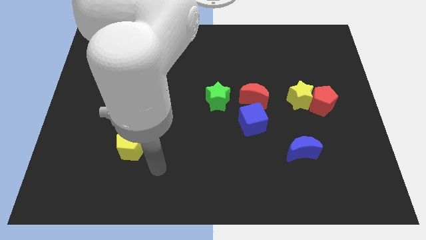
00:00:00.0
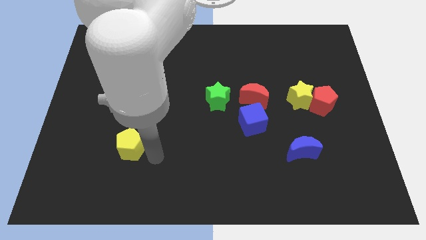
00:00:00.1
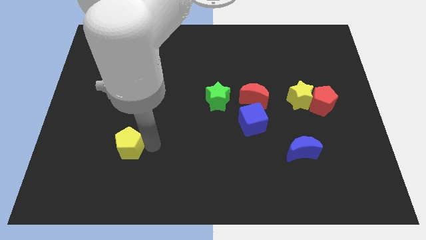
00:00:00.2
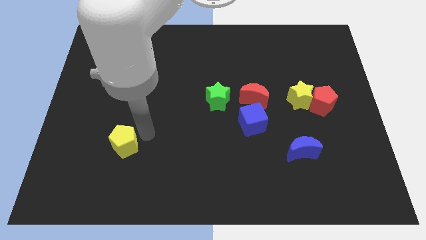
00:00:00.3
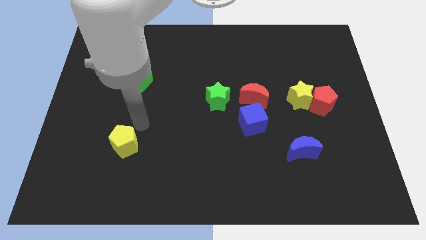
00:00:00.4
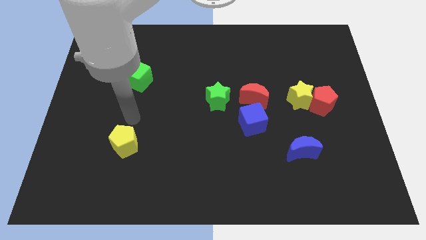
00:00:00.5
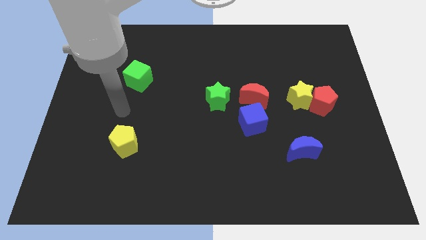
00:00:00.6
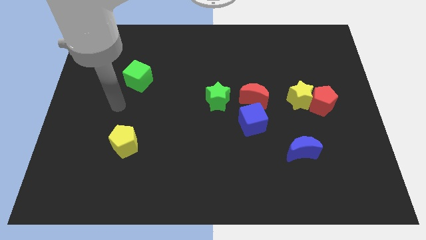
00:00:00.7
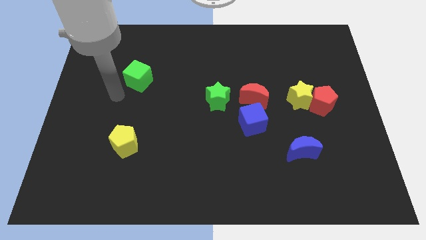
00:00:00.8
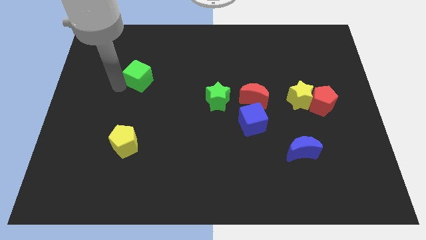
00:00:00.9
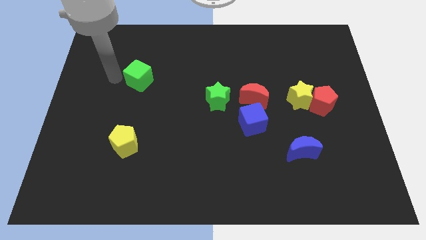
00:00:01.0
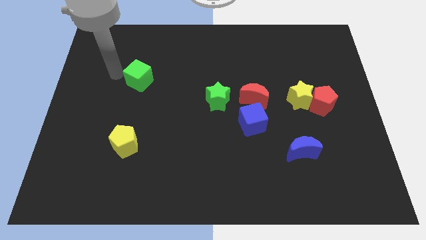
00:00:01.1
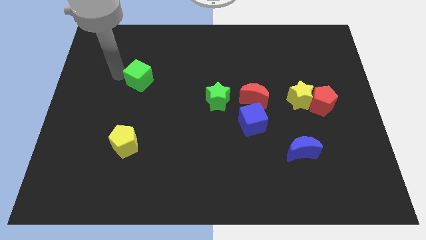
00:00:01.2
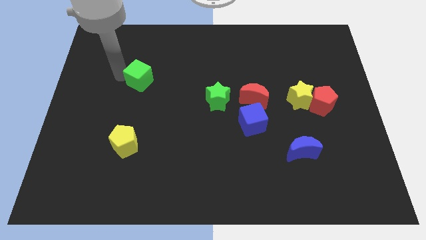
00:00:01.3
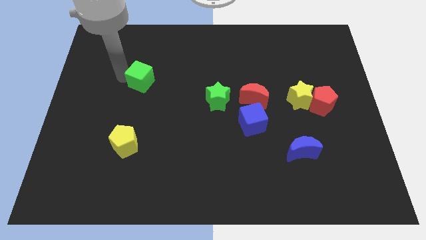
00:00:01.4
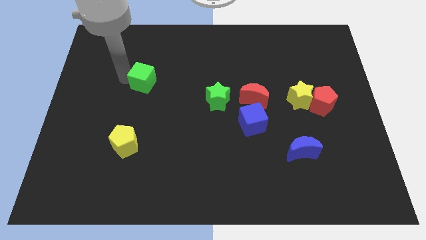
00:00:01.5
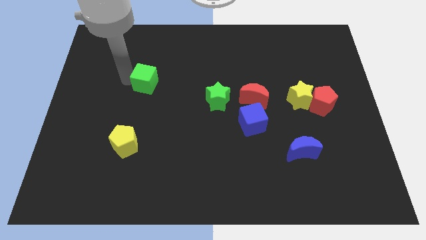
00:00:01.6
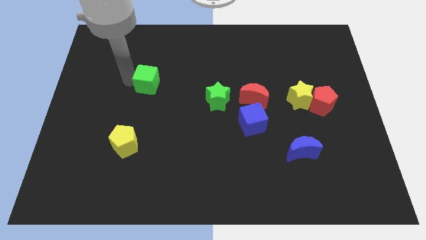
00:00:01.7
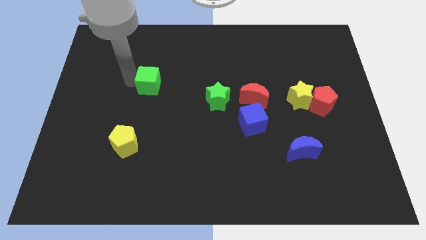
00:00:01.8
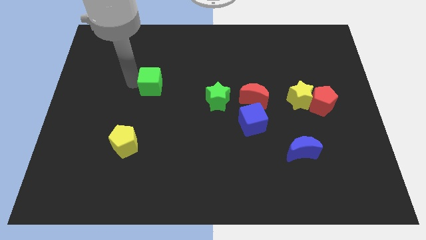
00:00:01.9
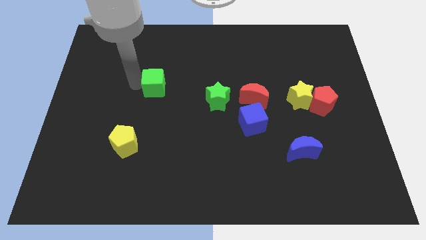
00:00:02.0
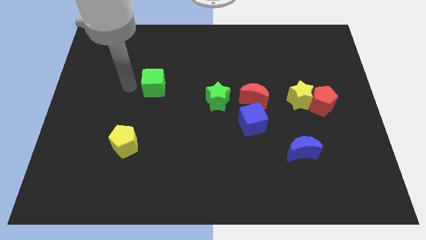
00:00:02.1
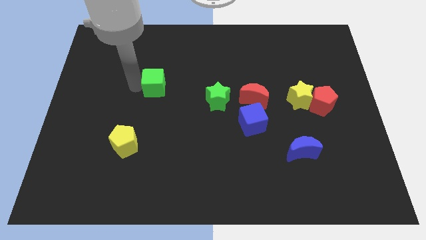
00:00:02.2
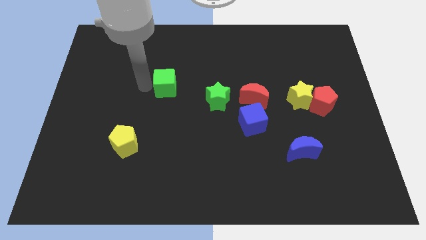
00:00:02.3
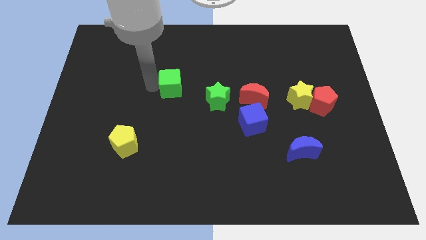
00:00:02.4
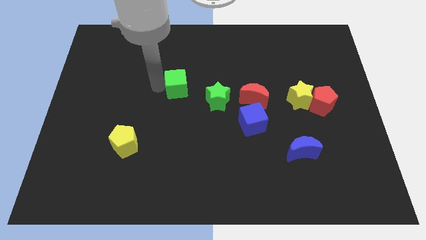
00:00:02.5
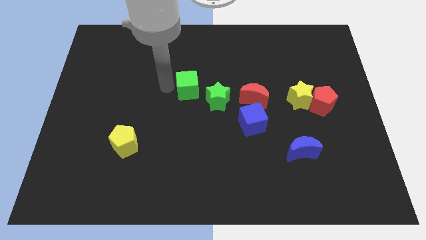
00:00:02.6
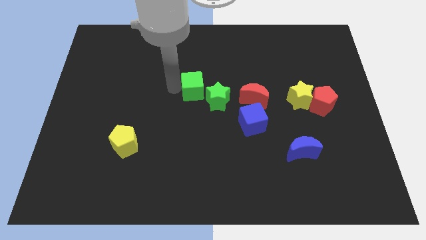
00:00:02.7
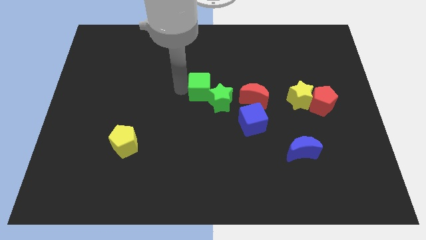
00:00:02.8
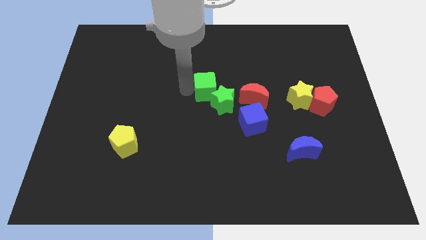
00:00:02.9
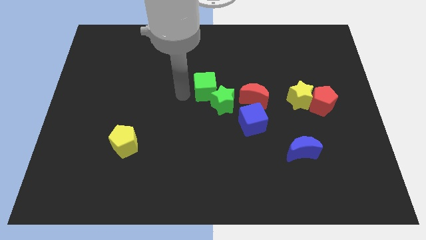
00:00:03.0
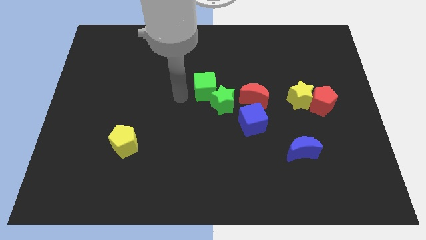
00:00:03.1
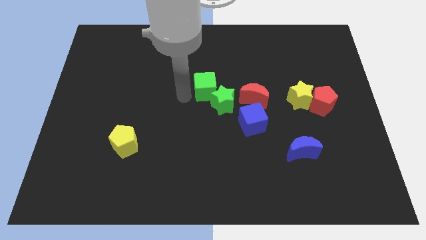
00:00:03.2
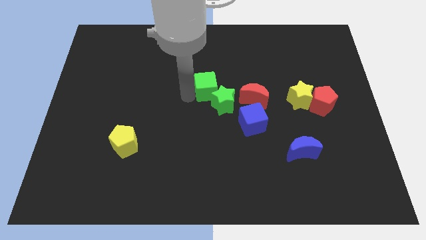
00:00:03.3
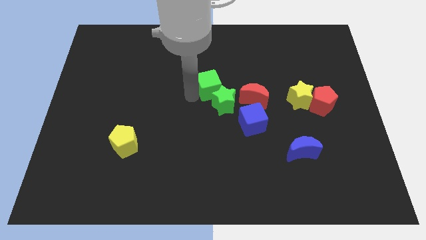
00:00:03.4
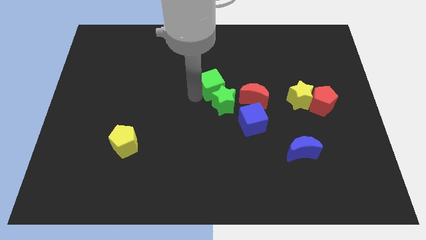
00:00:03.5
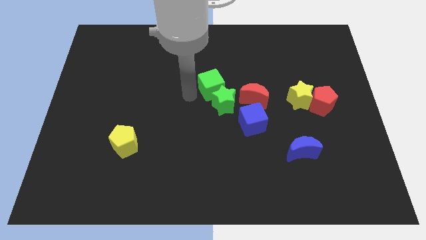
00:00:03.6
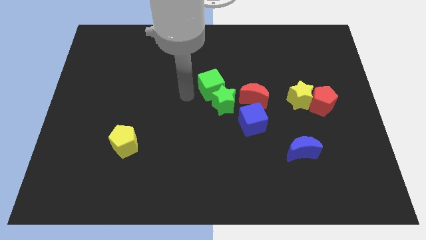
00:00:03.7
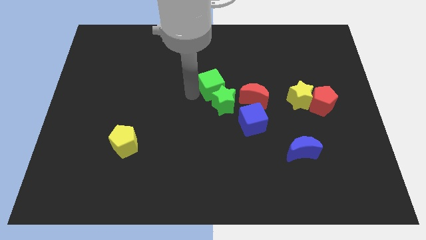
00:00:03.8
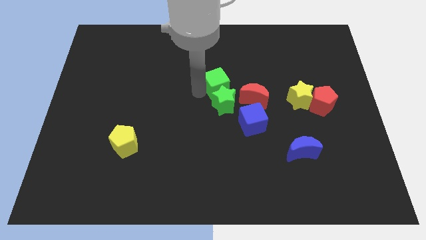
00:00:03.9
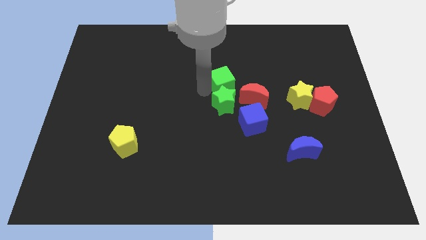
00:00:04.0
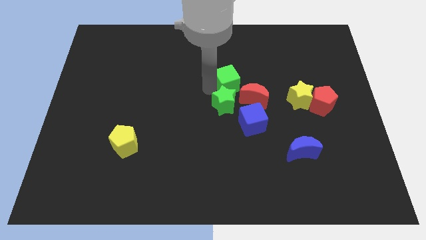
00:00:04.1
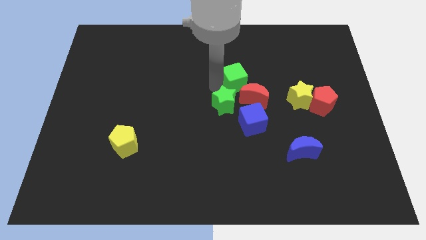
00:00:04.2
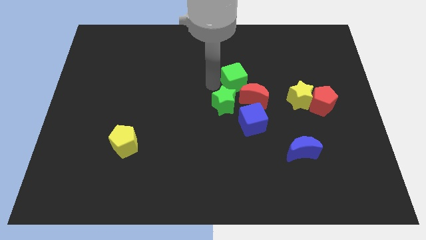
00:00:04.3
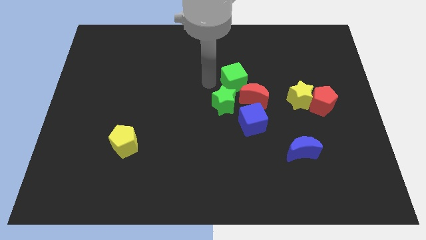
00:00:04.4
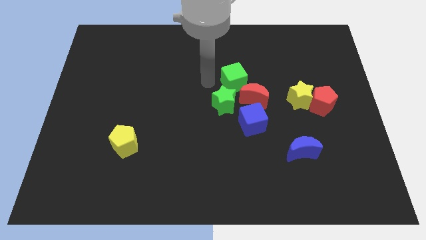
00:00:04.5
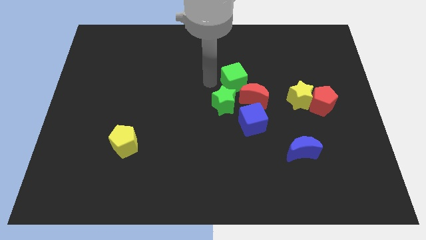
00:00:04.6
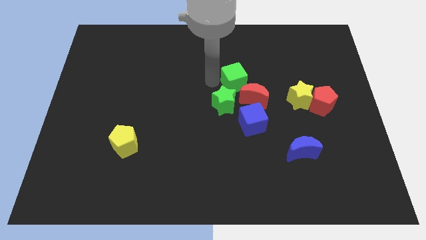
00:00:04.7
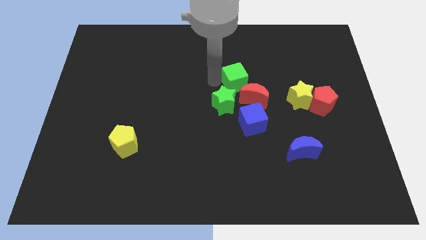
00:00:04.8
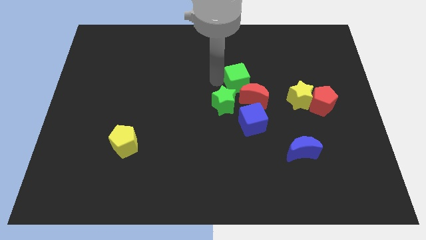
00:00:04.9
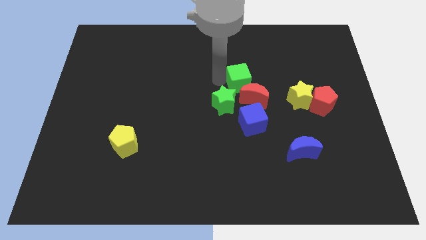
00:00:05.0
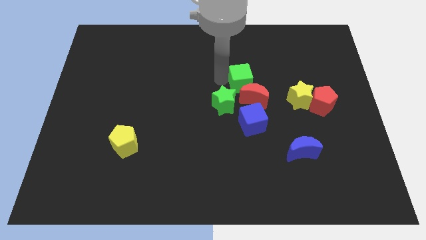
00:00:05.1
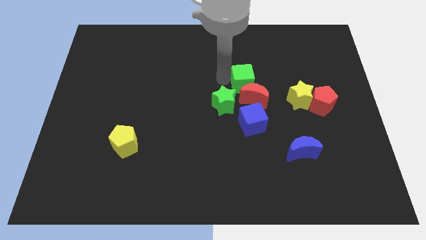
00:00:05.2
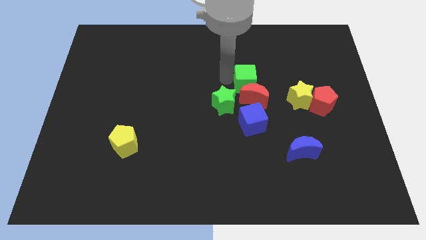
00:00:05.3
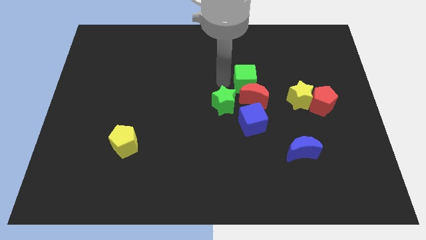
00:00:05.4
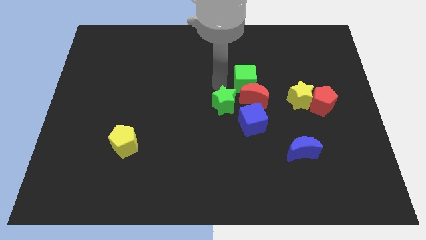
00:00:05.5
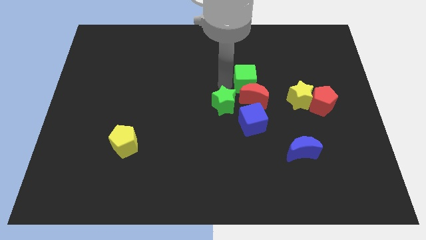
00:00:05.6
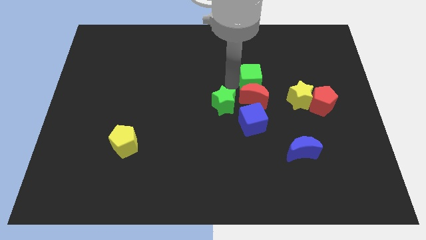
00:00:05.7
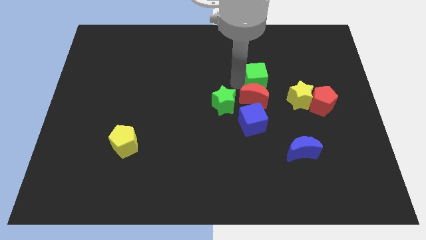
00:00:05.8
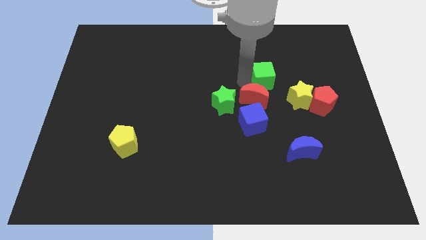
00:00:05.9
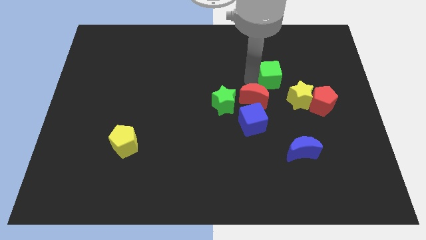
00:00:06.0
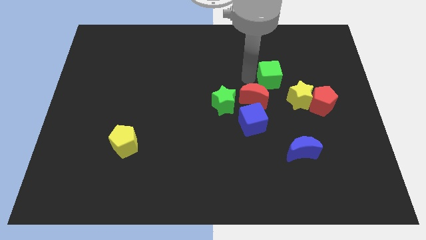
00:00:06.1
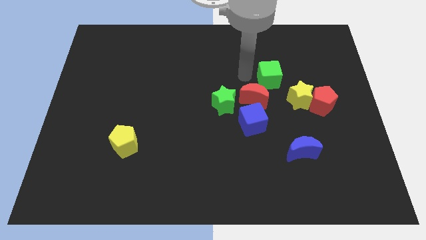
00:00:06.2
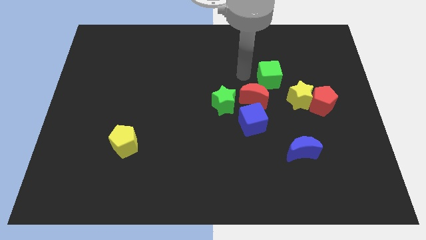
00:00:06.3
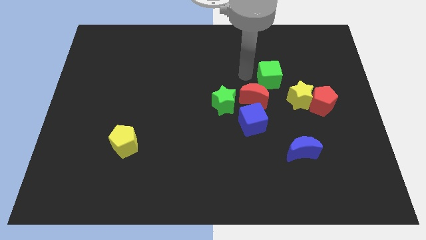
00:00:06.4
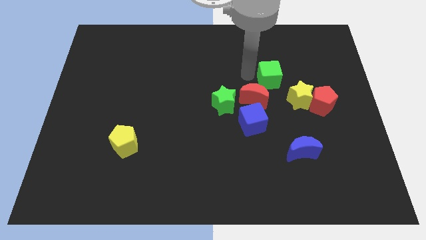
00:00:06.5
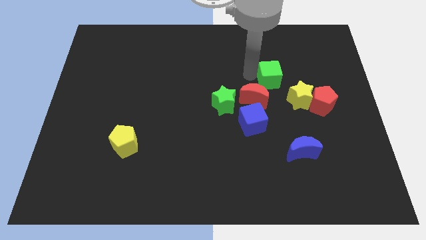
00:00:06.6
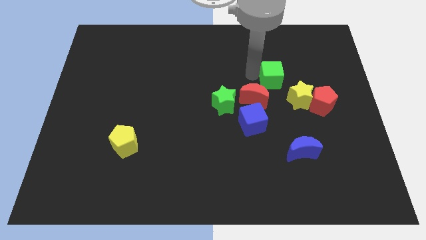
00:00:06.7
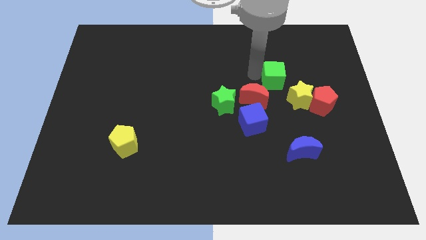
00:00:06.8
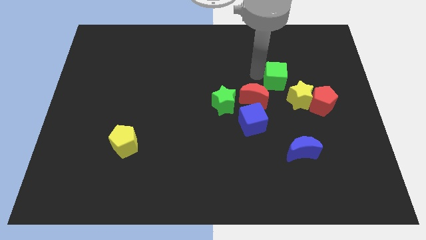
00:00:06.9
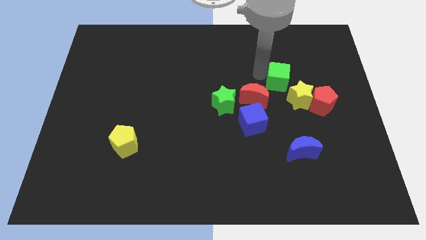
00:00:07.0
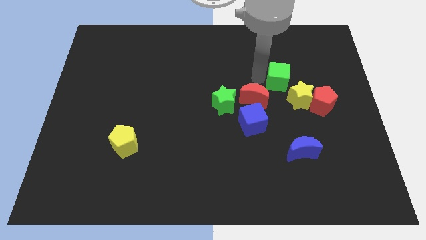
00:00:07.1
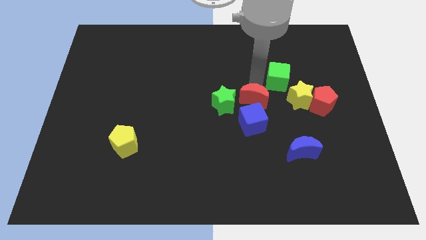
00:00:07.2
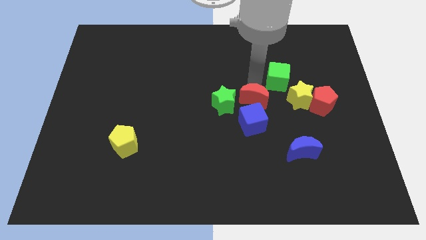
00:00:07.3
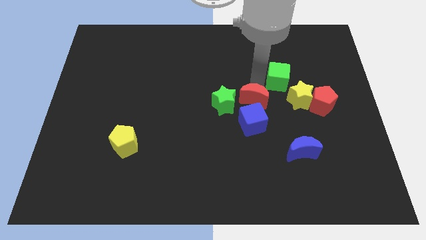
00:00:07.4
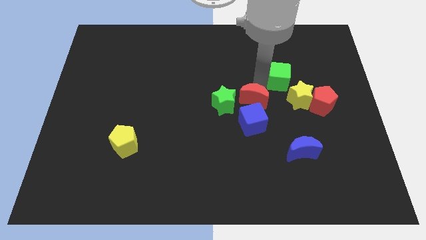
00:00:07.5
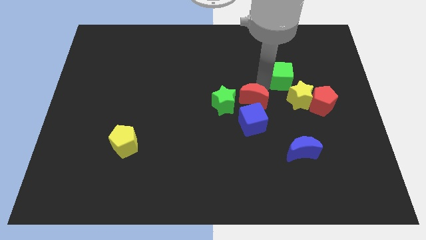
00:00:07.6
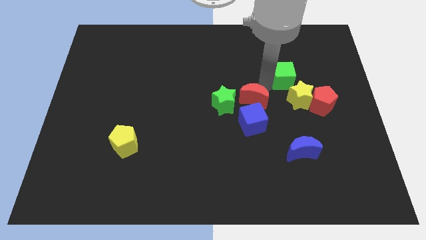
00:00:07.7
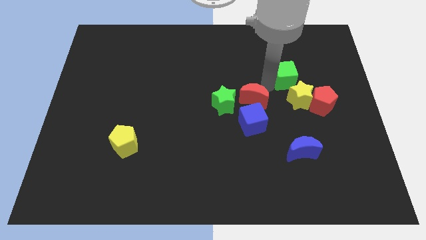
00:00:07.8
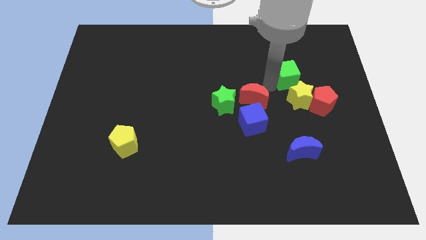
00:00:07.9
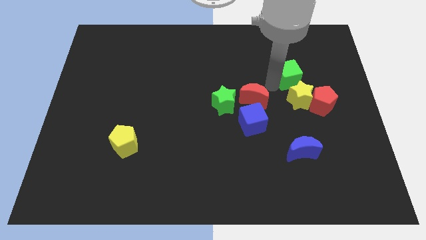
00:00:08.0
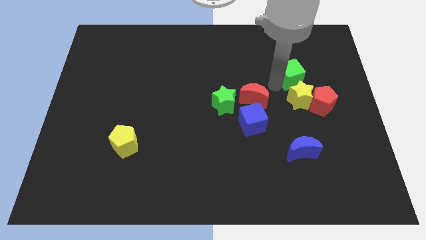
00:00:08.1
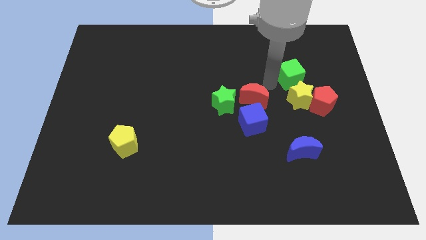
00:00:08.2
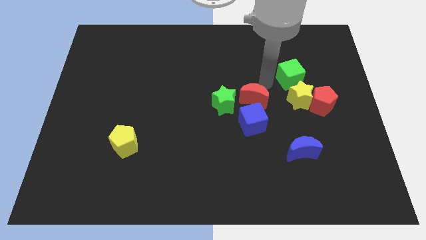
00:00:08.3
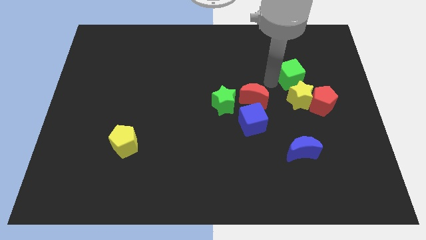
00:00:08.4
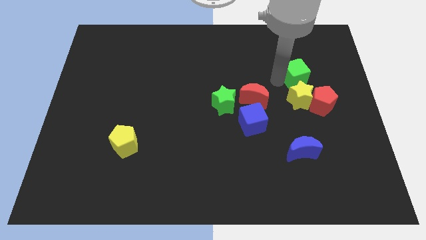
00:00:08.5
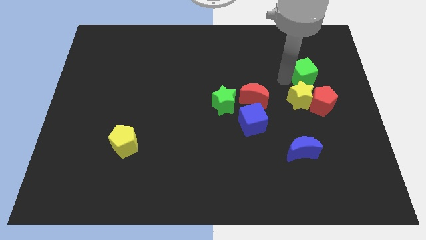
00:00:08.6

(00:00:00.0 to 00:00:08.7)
put the green cube above the red pentagon
